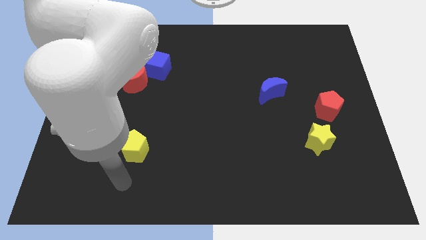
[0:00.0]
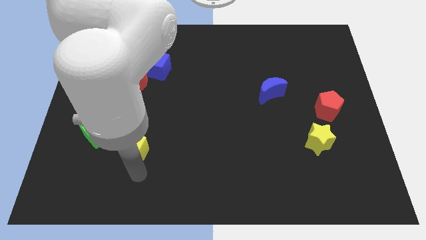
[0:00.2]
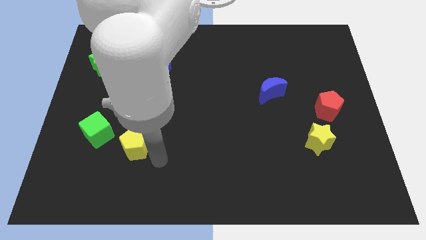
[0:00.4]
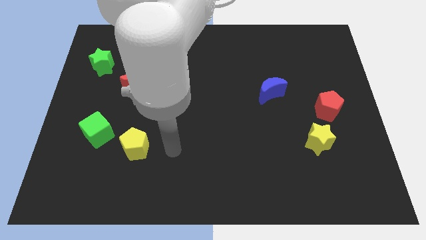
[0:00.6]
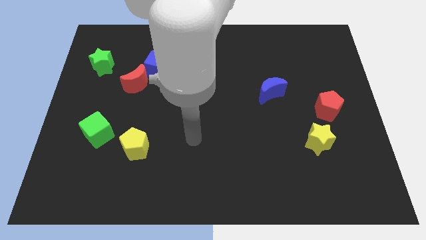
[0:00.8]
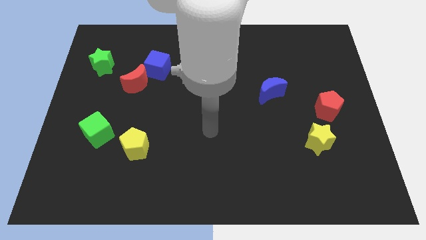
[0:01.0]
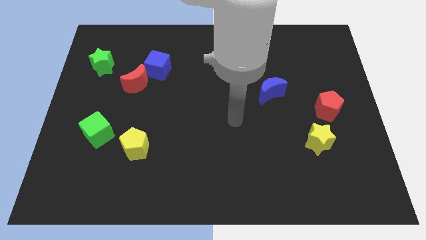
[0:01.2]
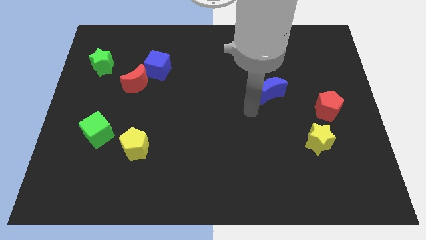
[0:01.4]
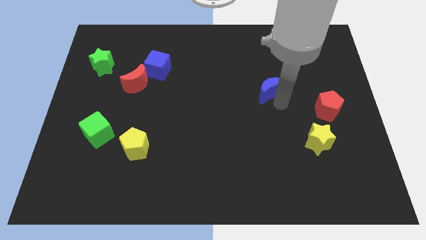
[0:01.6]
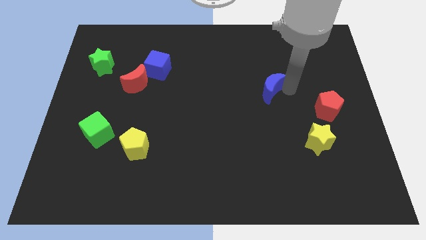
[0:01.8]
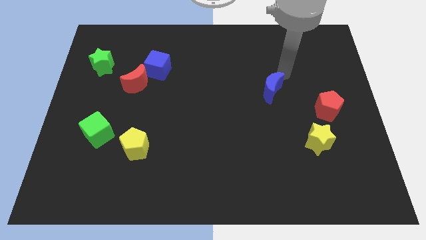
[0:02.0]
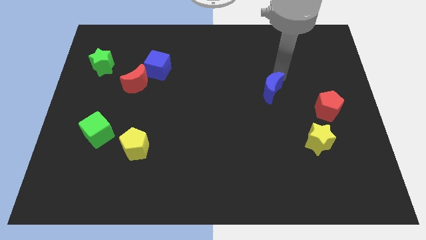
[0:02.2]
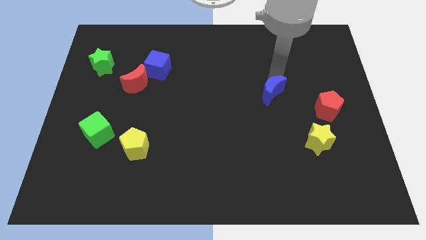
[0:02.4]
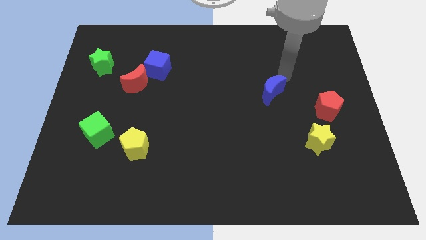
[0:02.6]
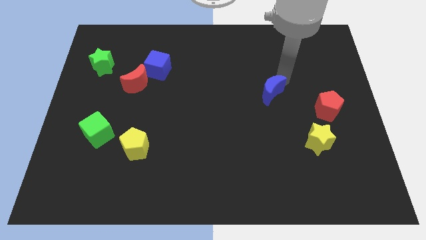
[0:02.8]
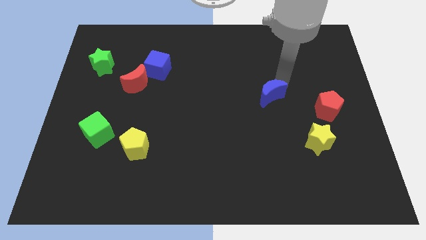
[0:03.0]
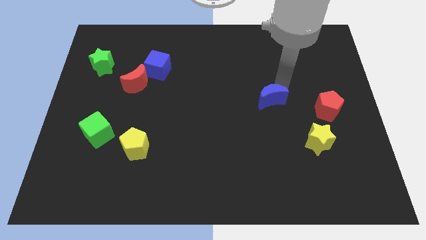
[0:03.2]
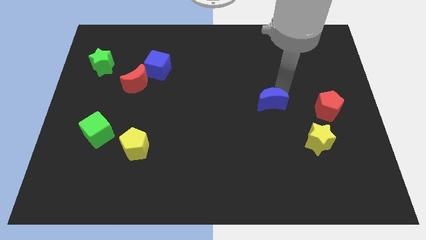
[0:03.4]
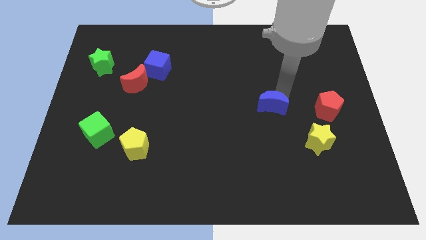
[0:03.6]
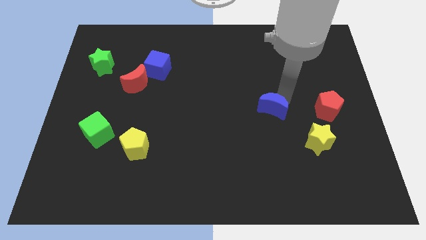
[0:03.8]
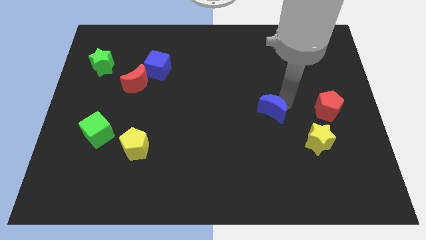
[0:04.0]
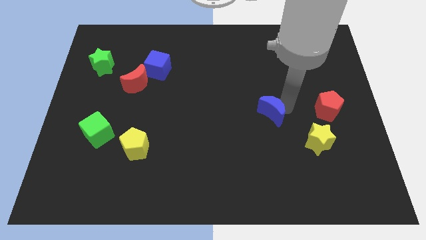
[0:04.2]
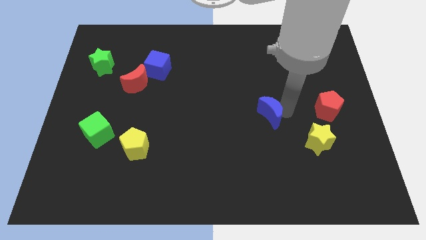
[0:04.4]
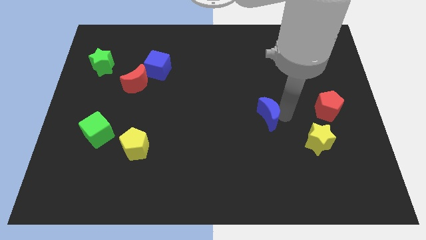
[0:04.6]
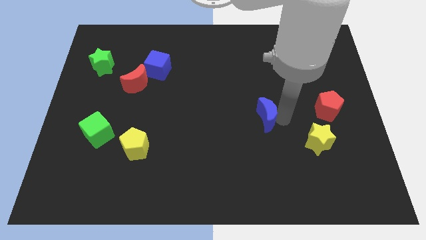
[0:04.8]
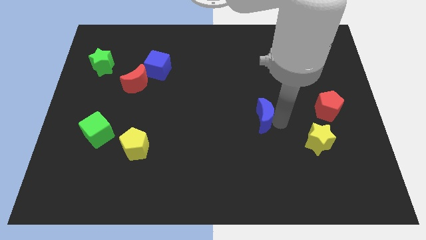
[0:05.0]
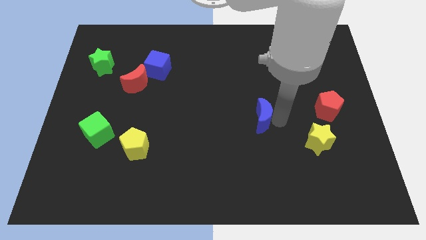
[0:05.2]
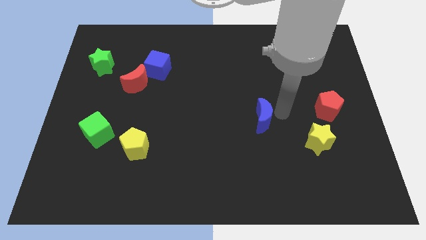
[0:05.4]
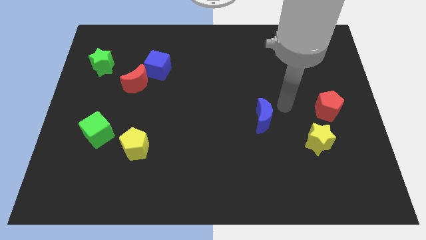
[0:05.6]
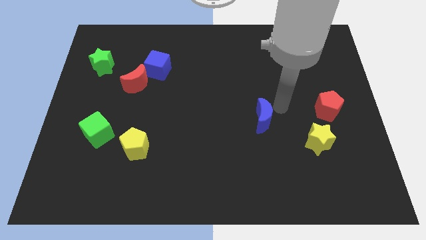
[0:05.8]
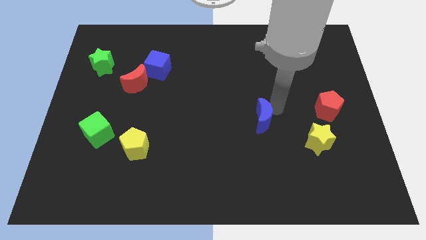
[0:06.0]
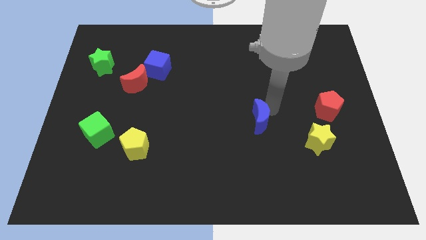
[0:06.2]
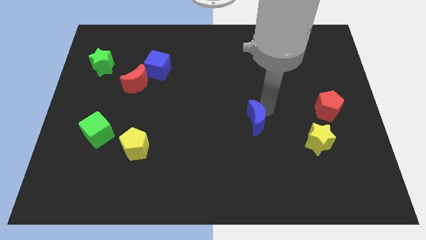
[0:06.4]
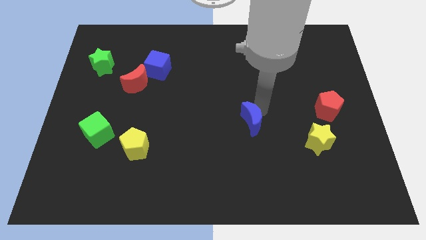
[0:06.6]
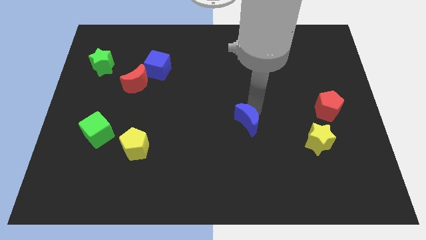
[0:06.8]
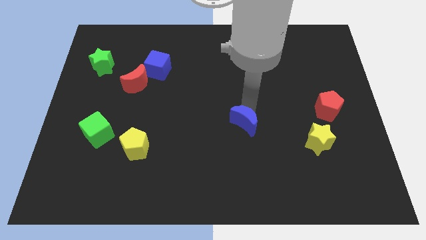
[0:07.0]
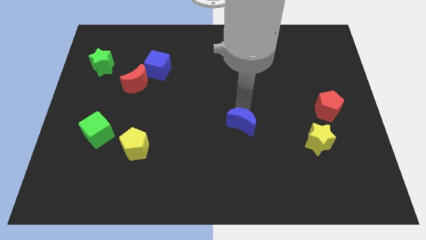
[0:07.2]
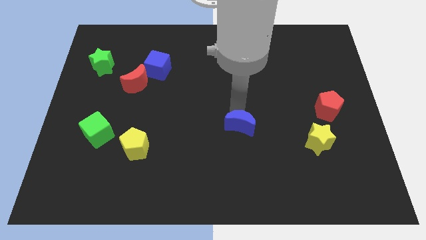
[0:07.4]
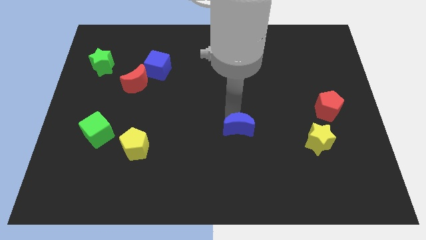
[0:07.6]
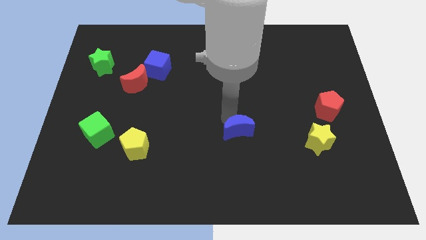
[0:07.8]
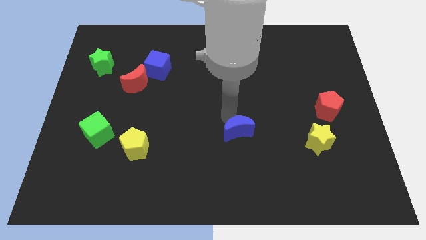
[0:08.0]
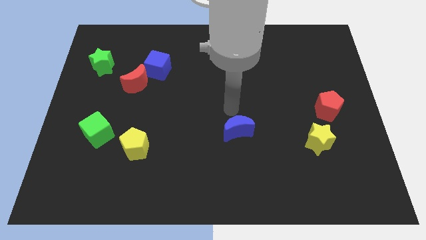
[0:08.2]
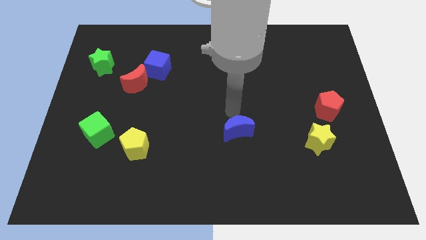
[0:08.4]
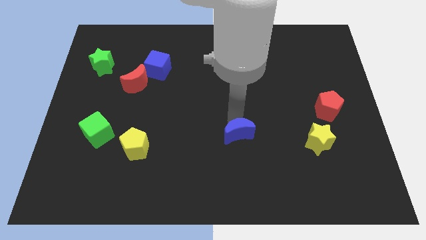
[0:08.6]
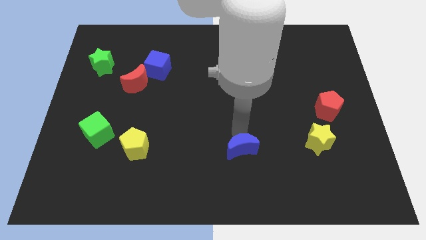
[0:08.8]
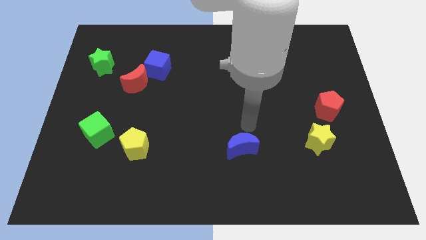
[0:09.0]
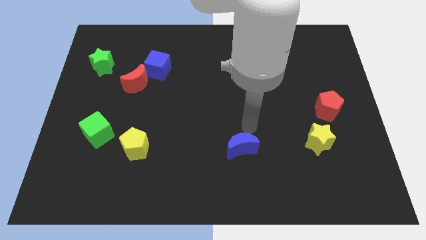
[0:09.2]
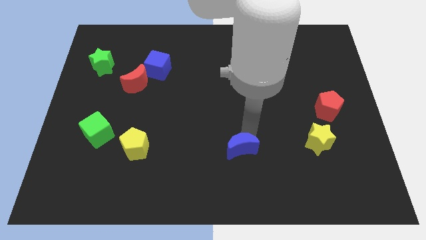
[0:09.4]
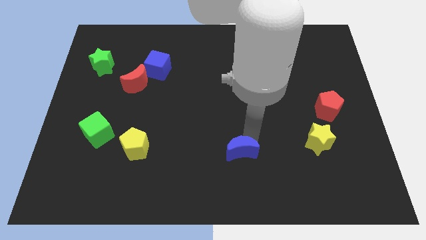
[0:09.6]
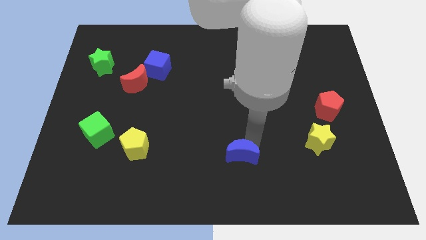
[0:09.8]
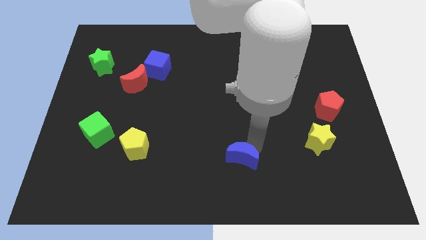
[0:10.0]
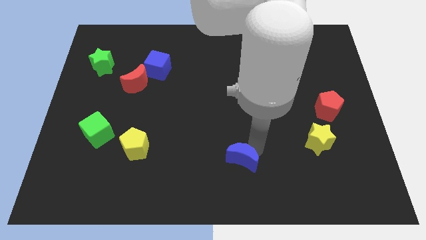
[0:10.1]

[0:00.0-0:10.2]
push the blue moon to the bottom side
